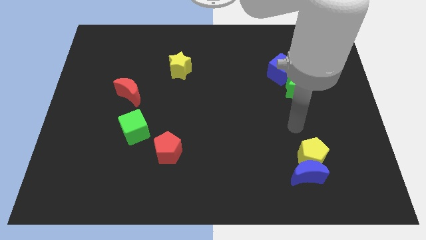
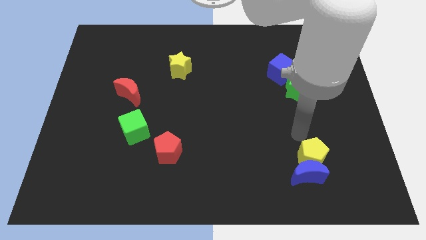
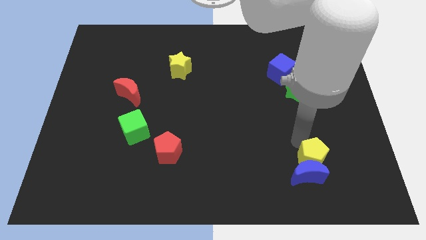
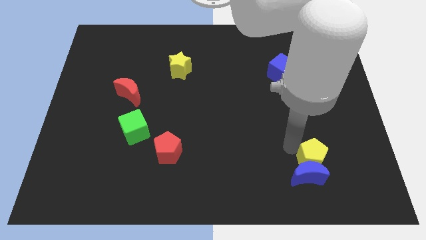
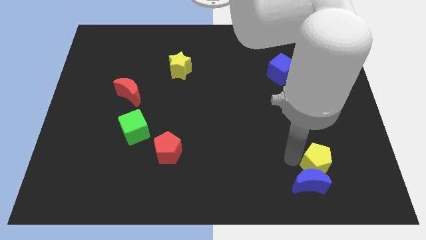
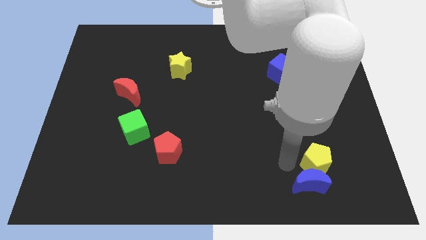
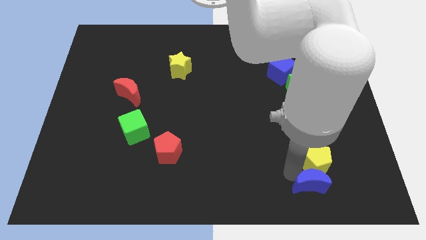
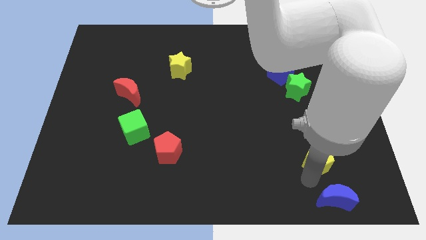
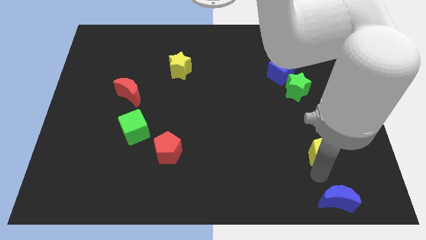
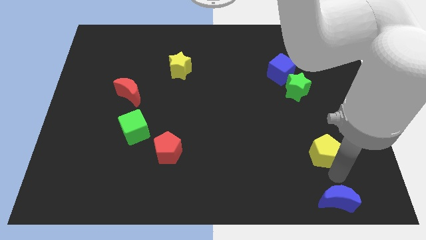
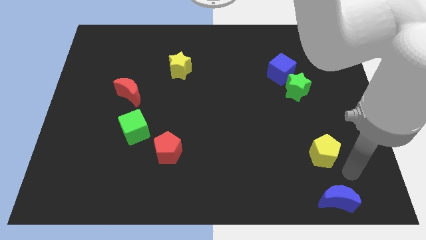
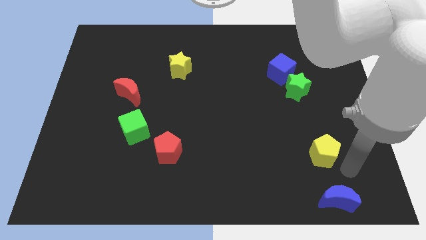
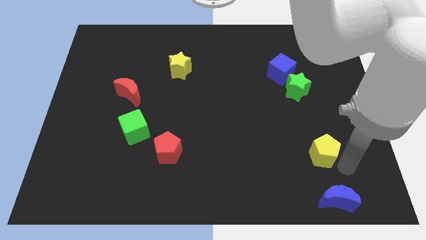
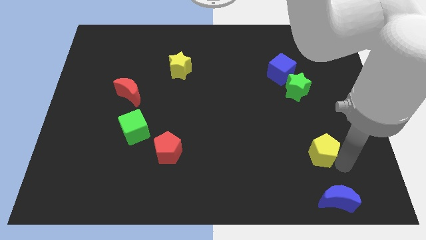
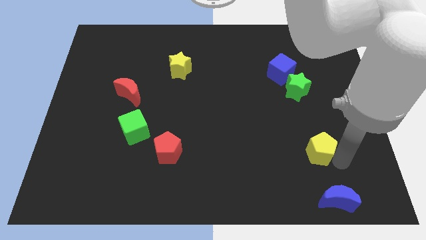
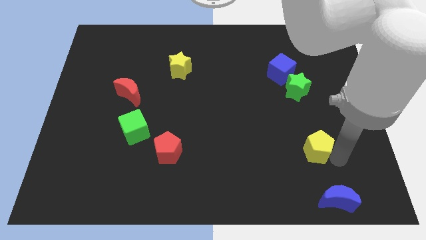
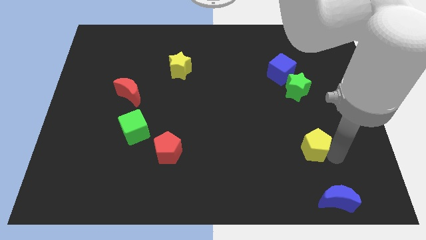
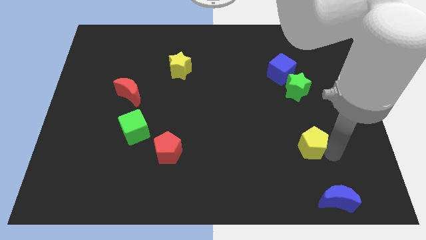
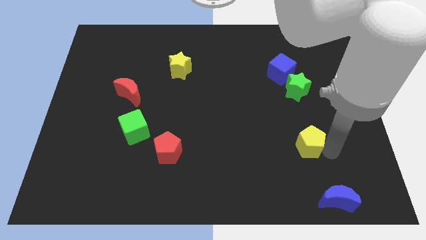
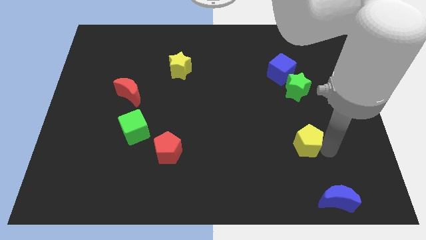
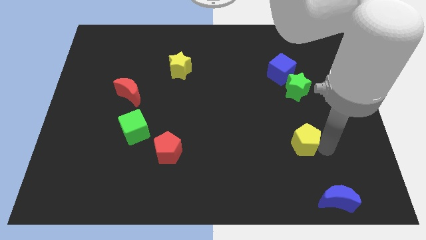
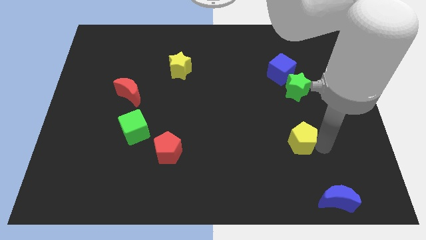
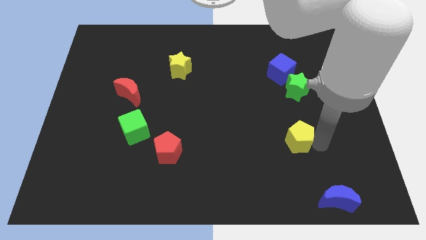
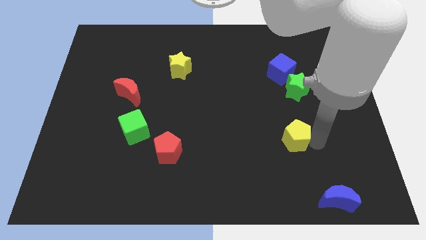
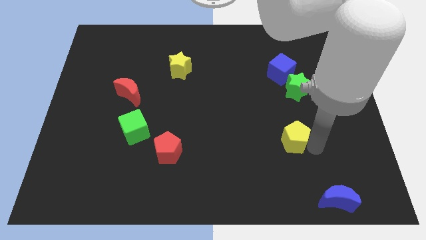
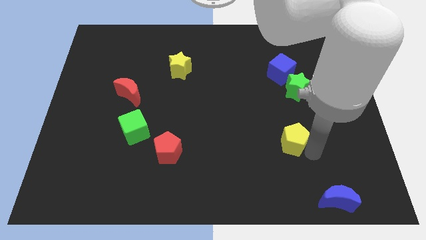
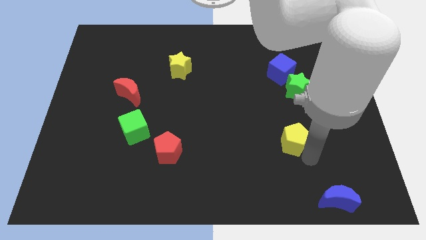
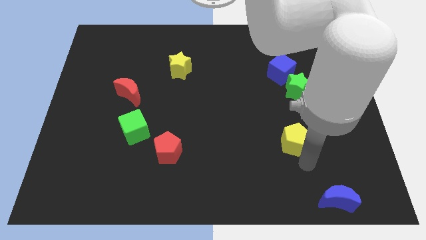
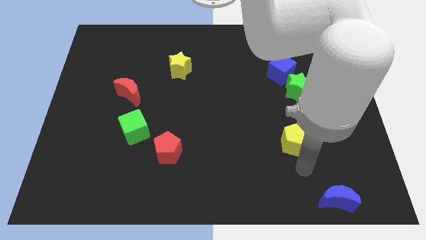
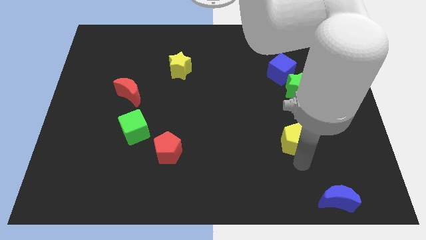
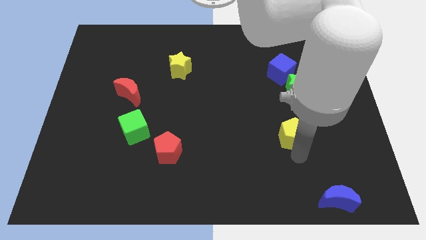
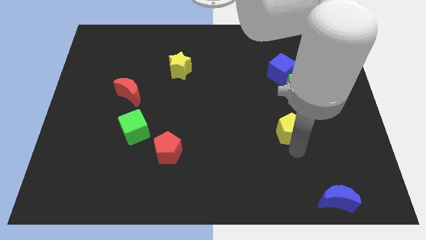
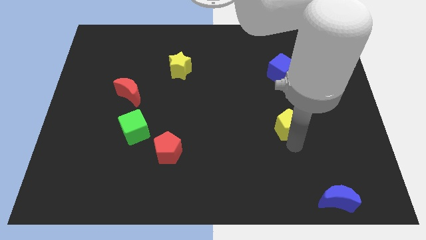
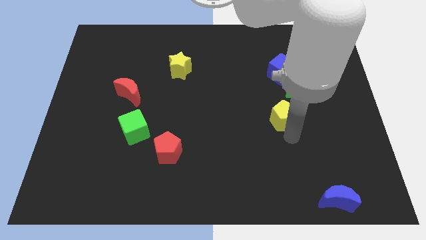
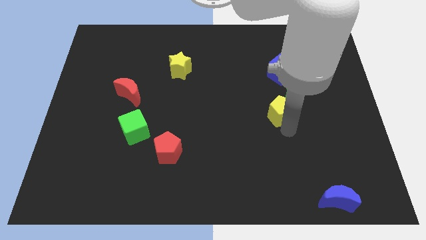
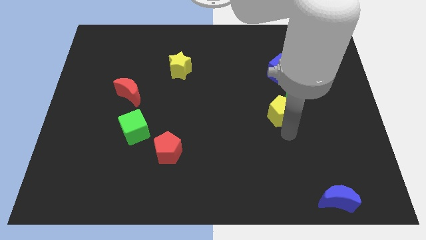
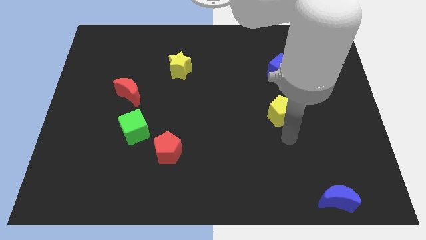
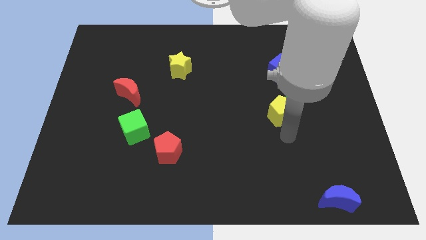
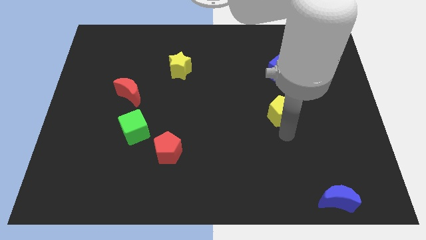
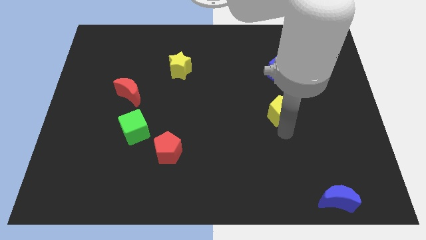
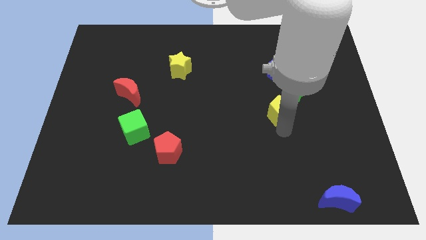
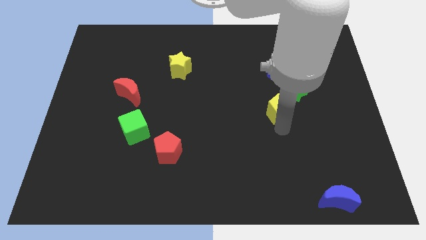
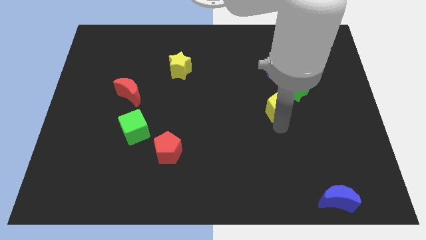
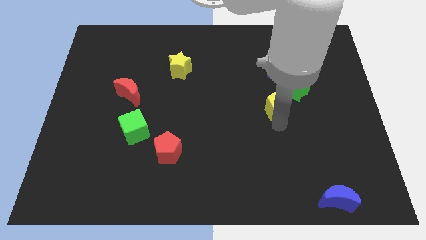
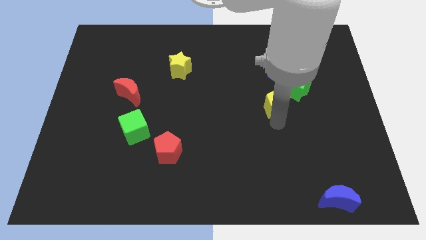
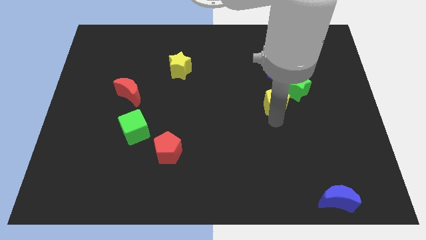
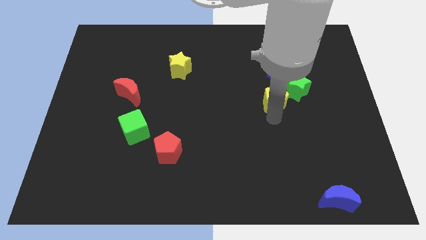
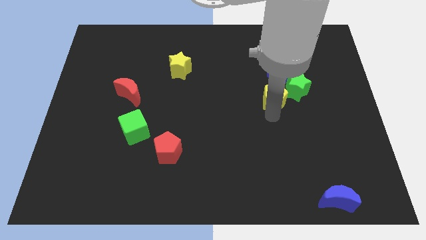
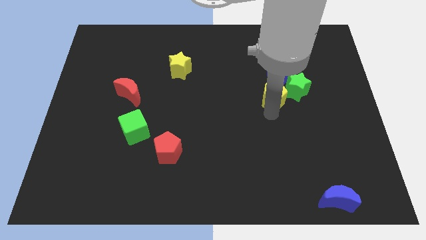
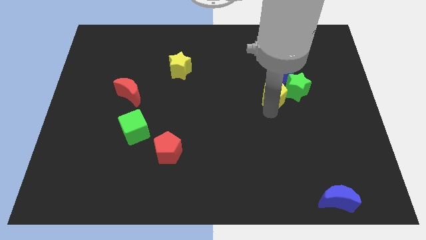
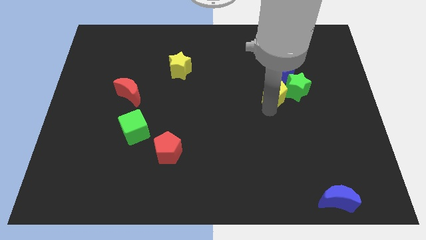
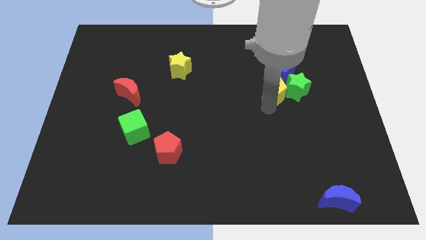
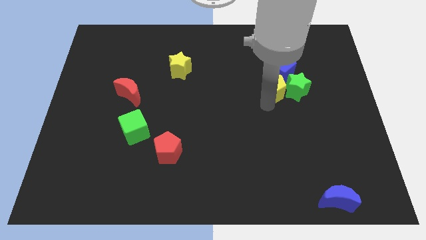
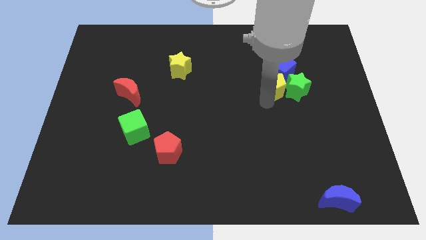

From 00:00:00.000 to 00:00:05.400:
put the yellow pentagon to the blue cube
